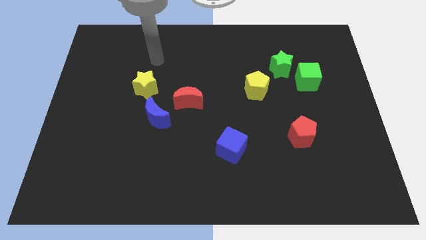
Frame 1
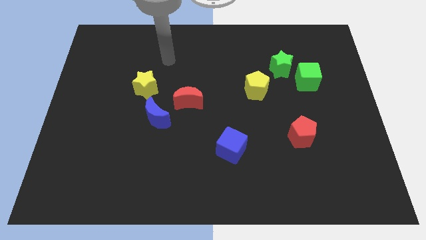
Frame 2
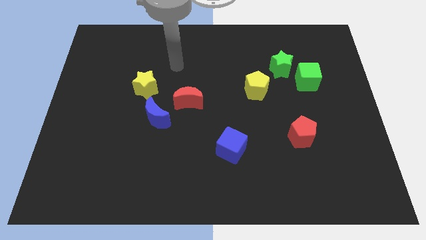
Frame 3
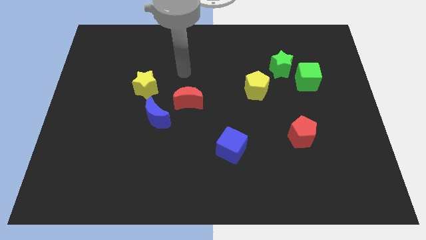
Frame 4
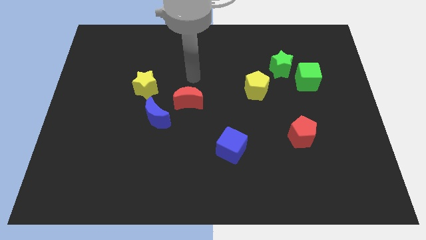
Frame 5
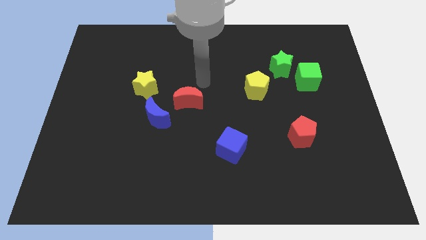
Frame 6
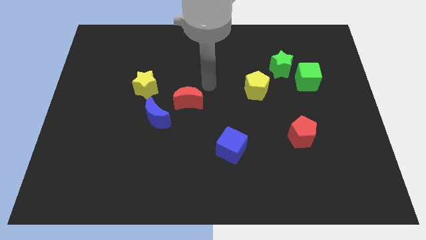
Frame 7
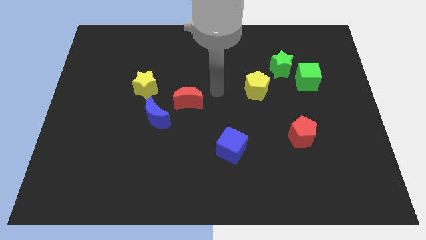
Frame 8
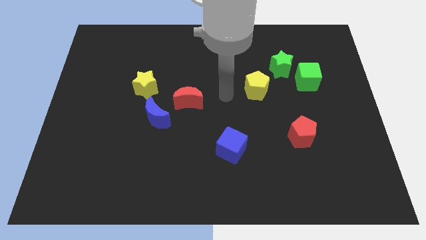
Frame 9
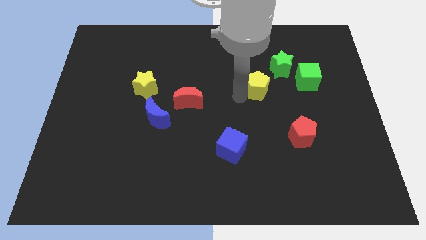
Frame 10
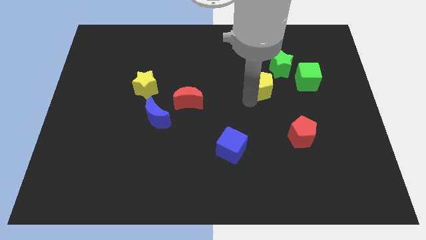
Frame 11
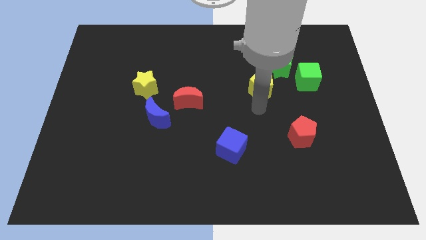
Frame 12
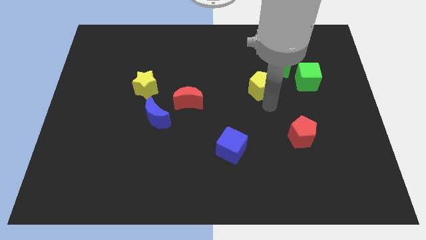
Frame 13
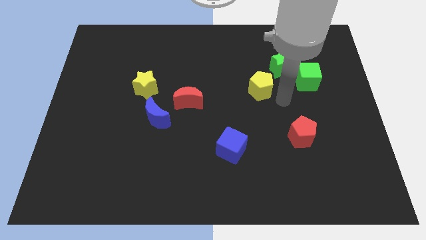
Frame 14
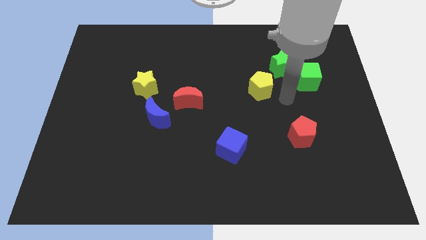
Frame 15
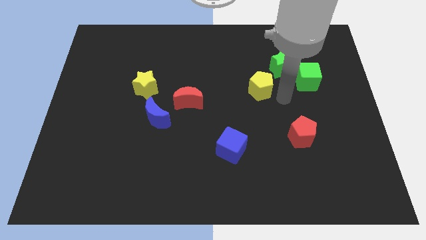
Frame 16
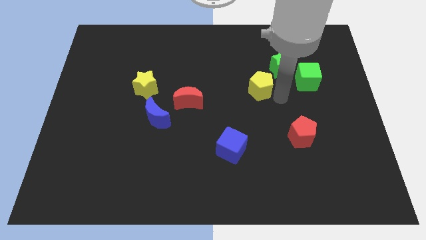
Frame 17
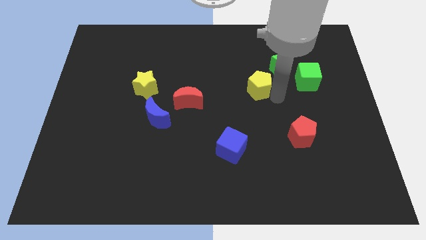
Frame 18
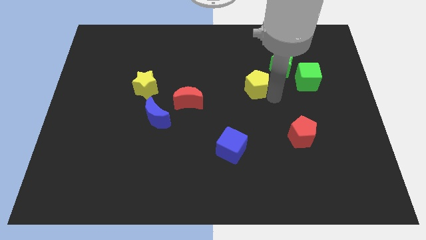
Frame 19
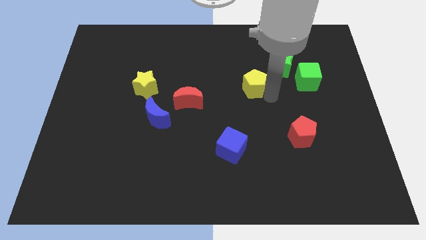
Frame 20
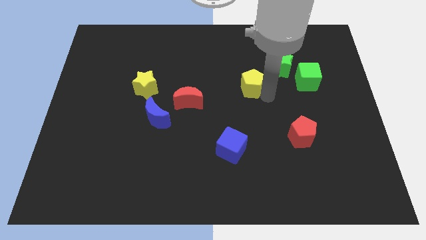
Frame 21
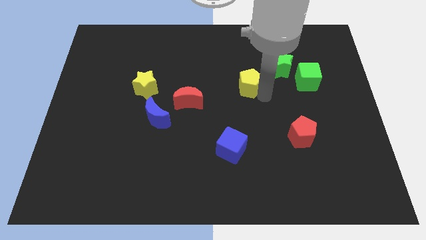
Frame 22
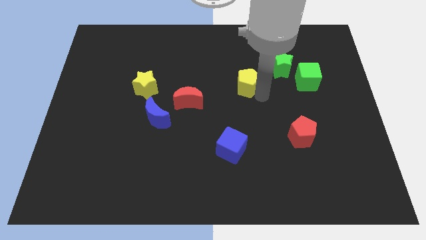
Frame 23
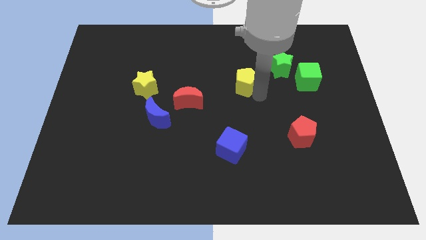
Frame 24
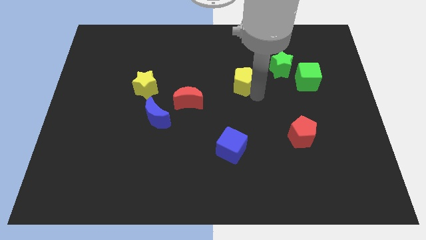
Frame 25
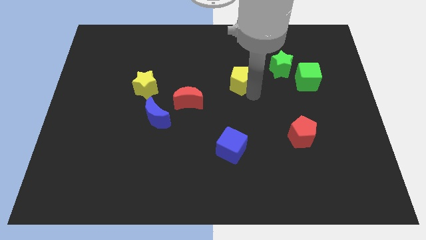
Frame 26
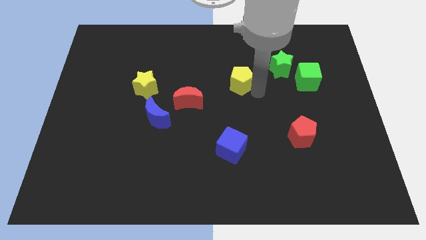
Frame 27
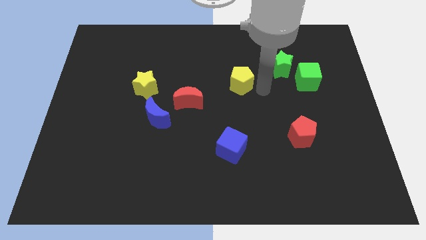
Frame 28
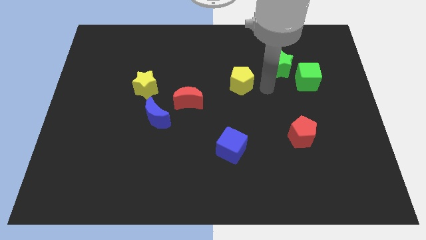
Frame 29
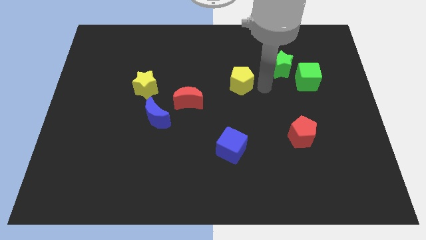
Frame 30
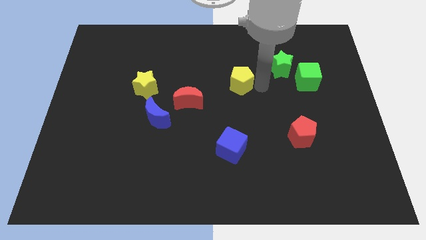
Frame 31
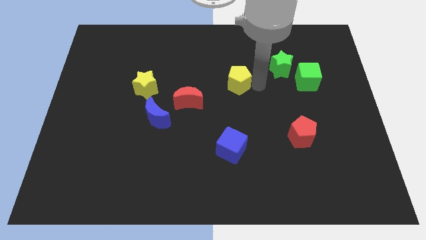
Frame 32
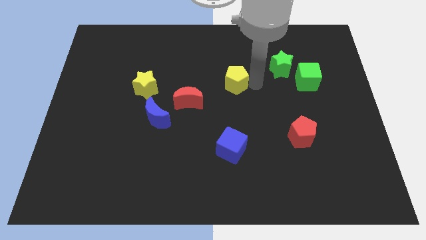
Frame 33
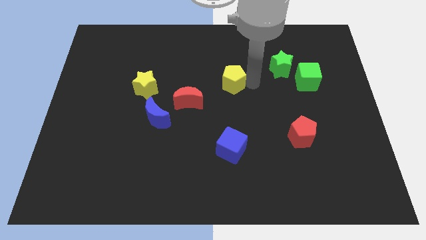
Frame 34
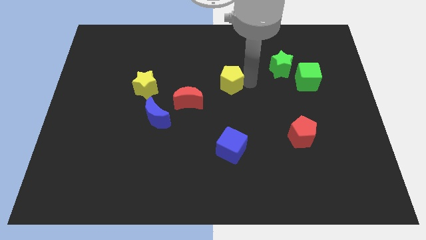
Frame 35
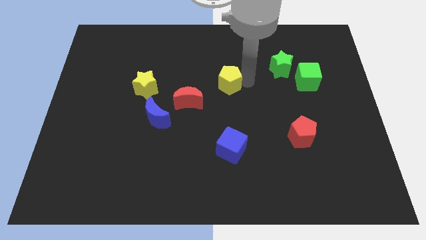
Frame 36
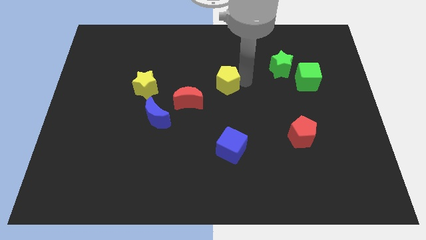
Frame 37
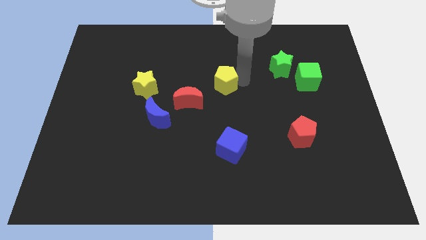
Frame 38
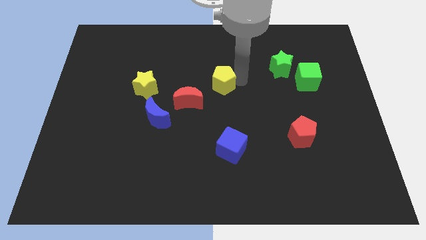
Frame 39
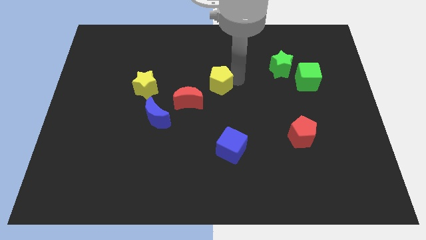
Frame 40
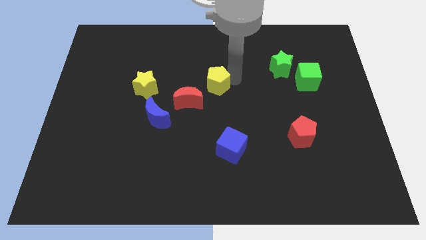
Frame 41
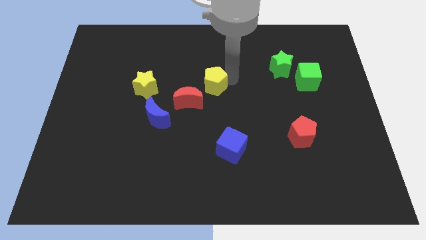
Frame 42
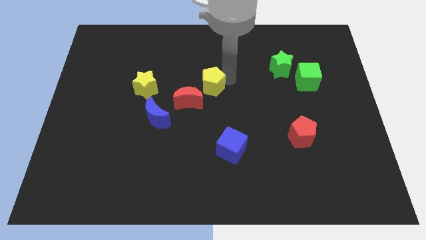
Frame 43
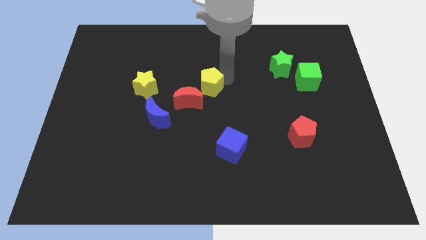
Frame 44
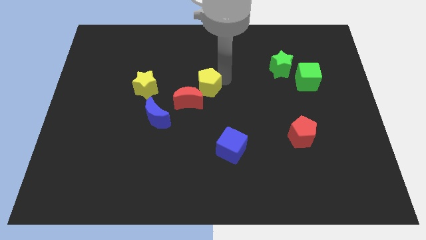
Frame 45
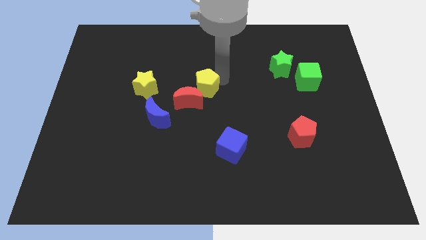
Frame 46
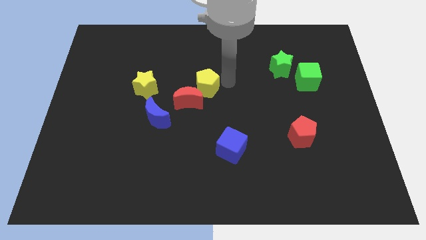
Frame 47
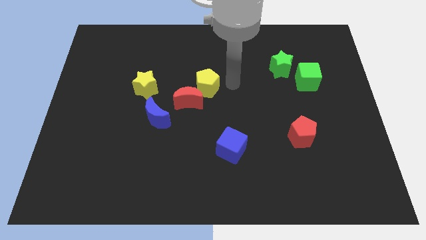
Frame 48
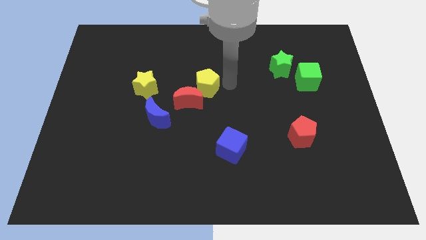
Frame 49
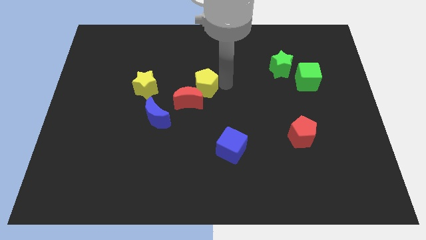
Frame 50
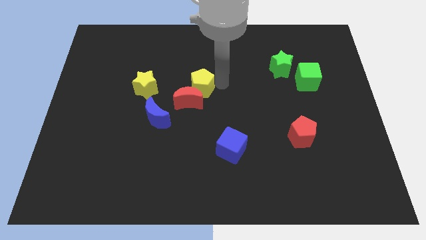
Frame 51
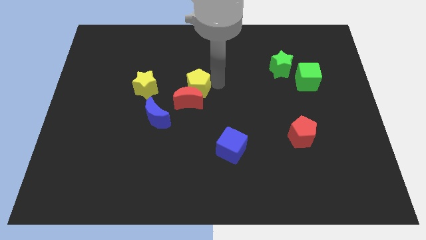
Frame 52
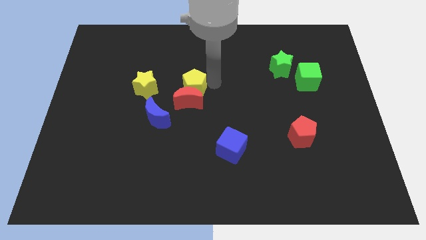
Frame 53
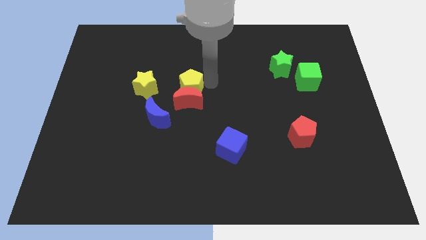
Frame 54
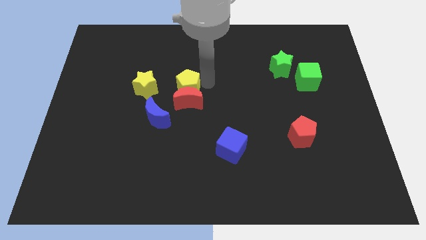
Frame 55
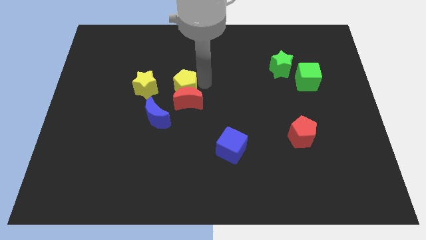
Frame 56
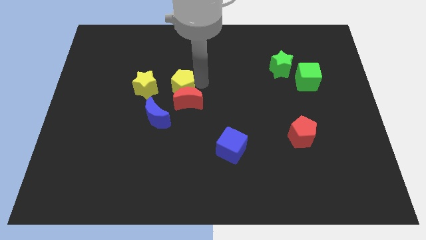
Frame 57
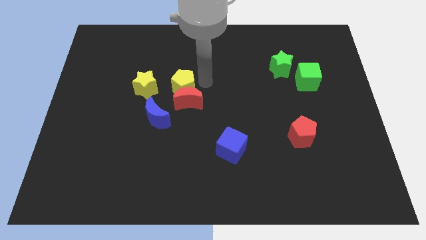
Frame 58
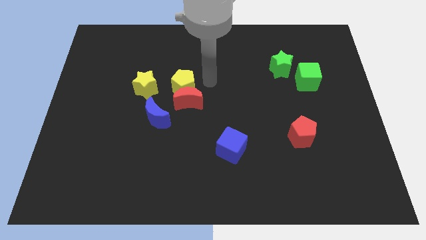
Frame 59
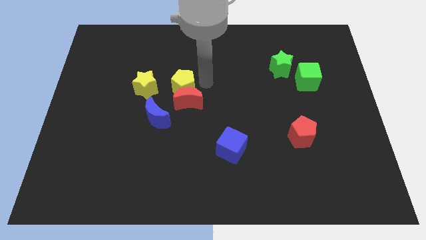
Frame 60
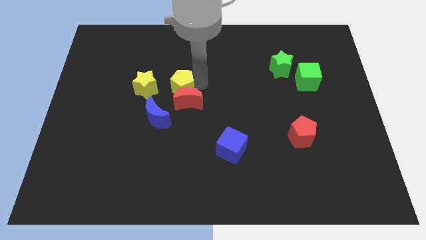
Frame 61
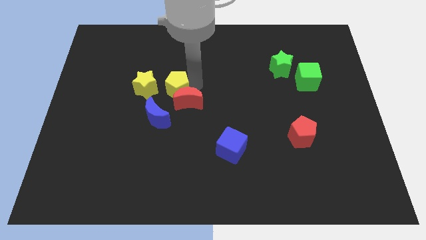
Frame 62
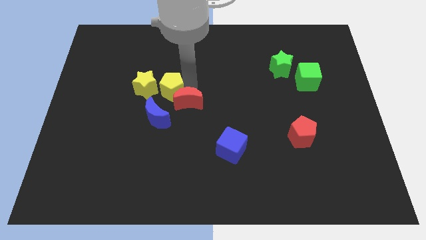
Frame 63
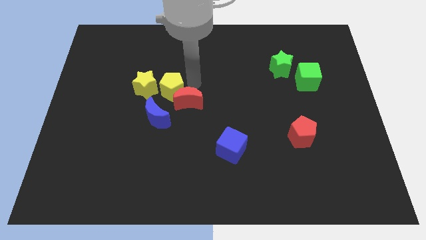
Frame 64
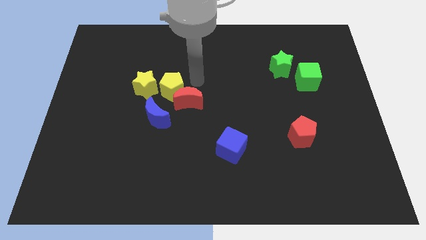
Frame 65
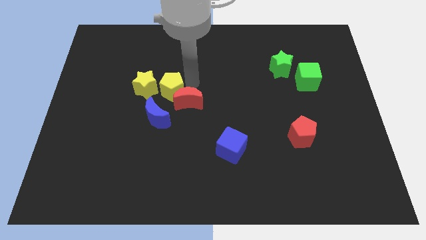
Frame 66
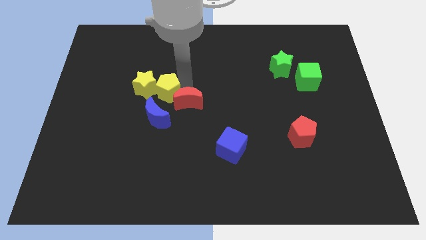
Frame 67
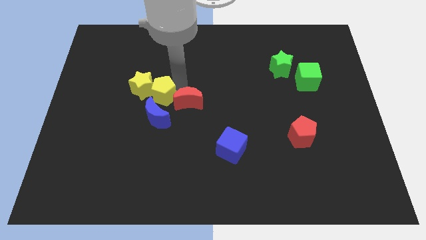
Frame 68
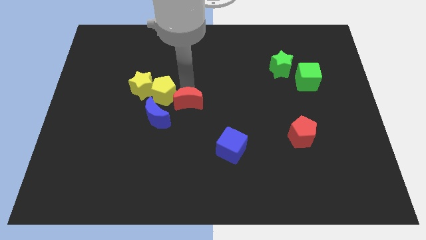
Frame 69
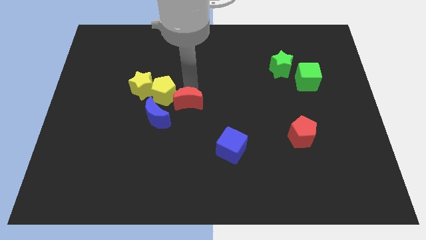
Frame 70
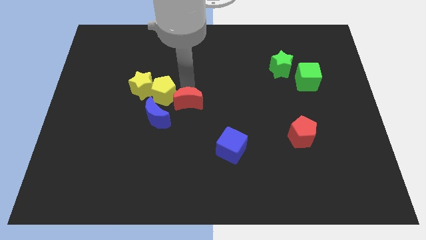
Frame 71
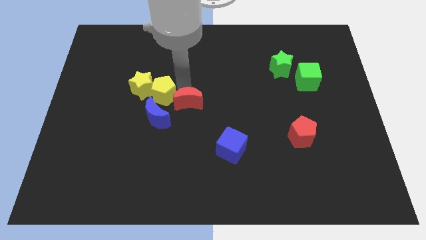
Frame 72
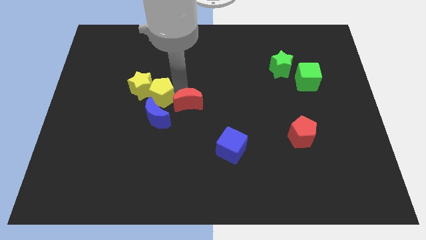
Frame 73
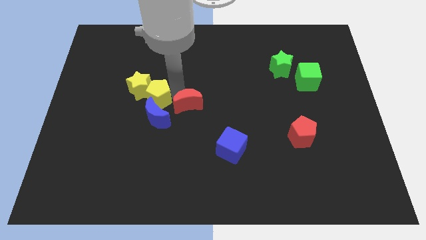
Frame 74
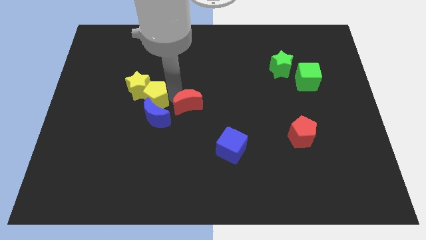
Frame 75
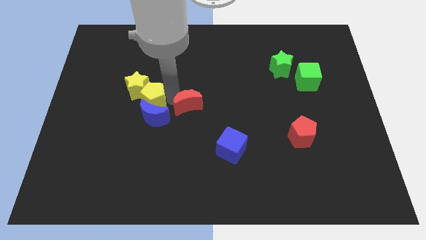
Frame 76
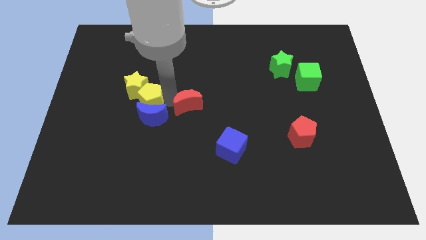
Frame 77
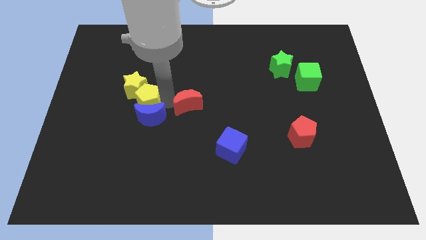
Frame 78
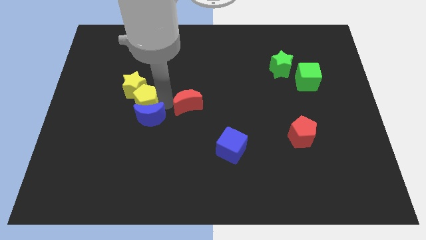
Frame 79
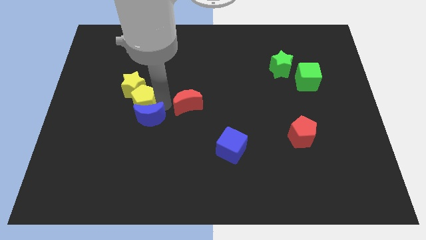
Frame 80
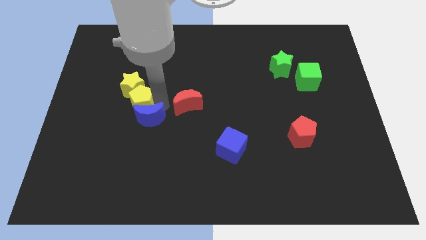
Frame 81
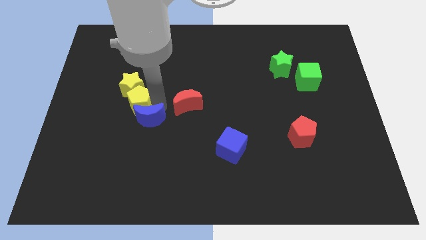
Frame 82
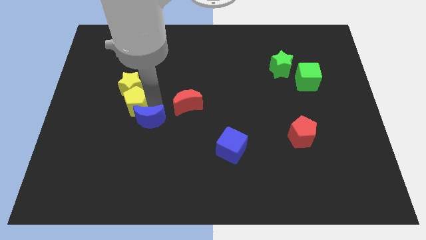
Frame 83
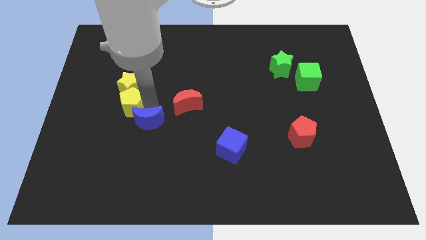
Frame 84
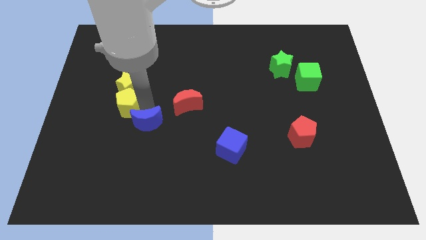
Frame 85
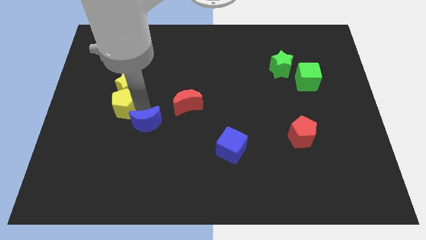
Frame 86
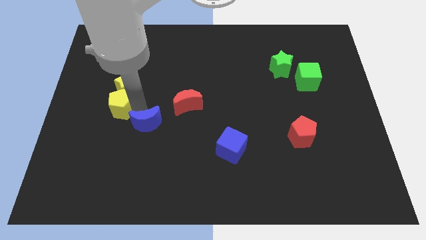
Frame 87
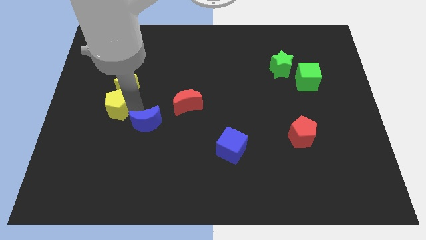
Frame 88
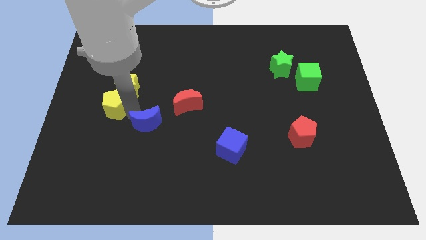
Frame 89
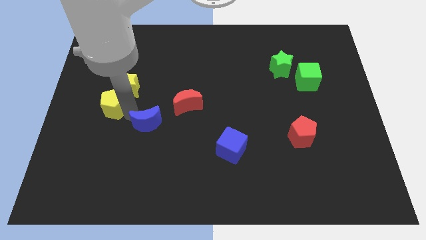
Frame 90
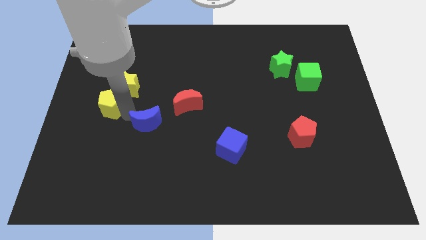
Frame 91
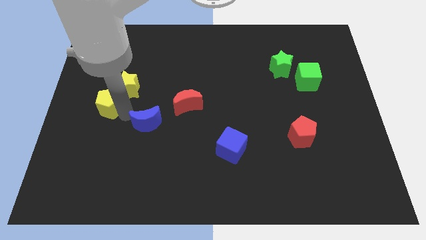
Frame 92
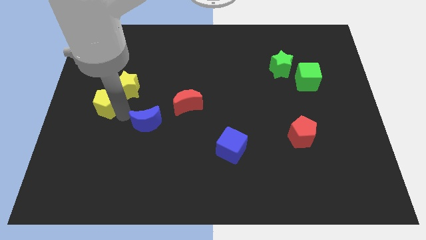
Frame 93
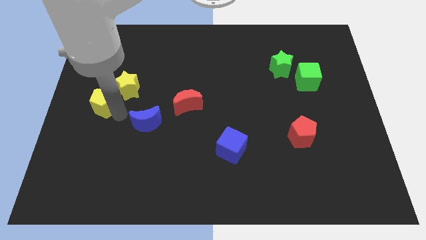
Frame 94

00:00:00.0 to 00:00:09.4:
put the yellow pentagon to the left side
